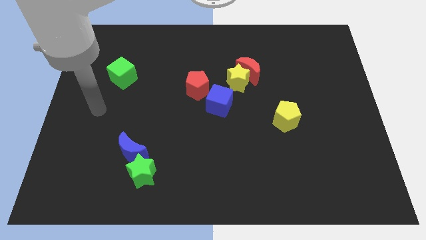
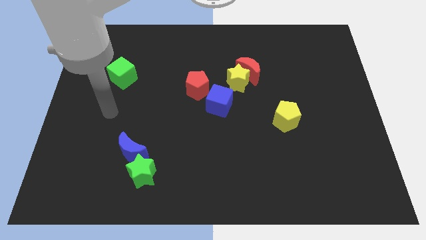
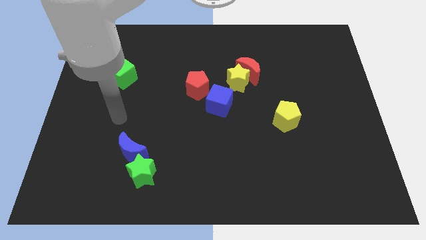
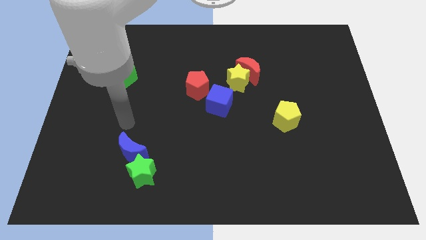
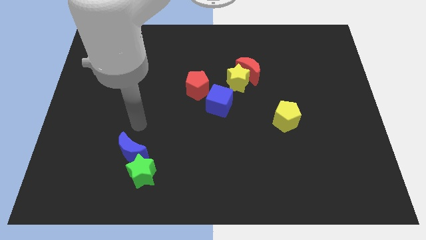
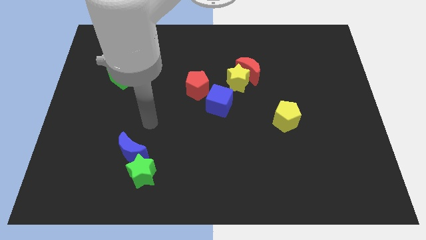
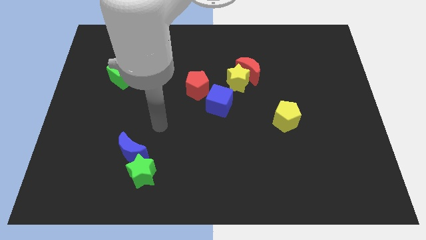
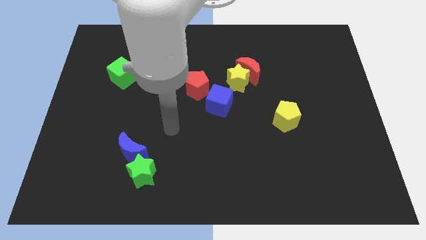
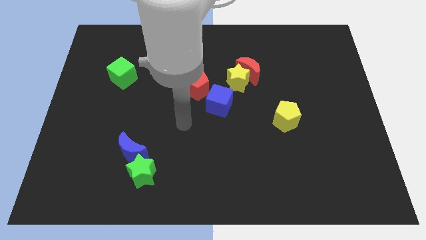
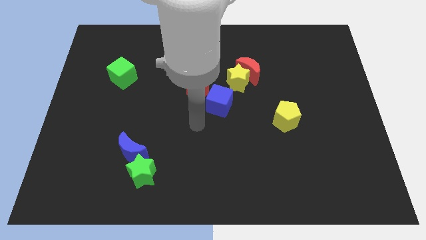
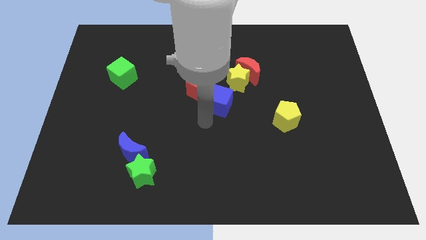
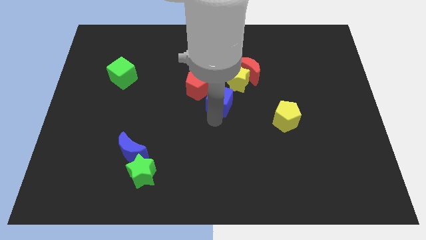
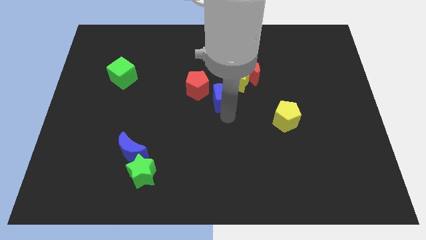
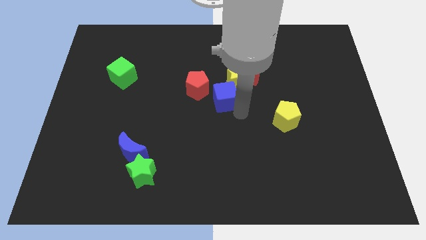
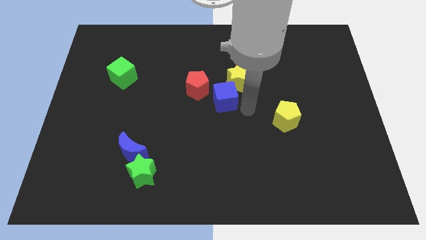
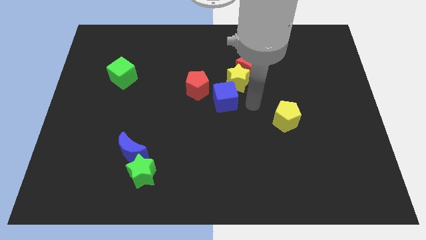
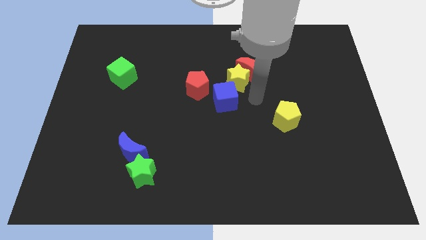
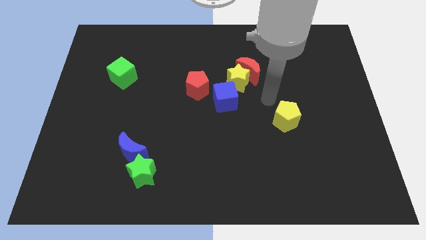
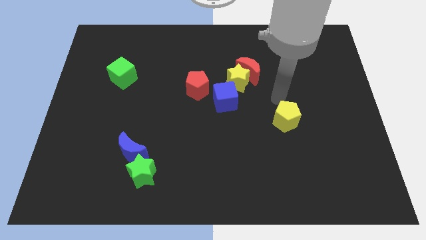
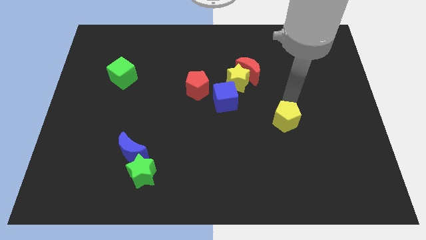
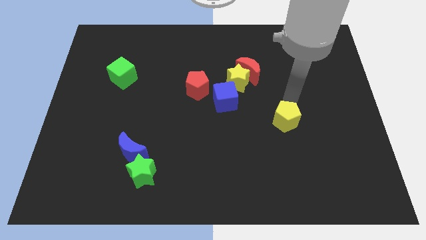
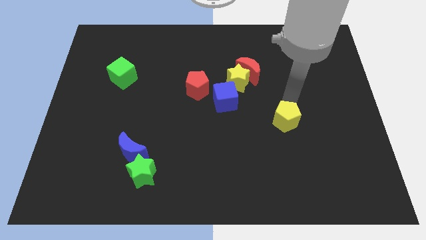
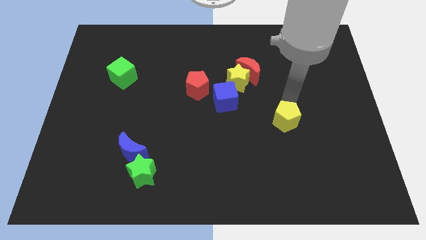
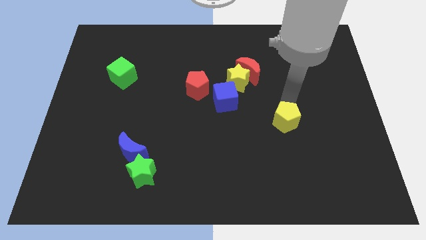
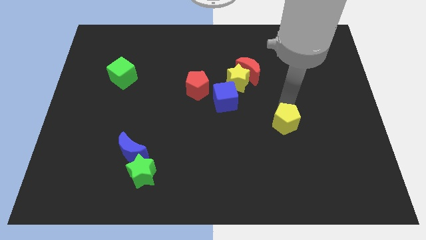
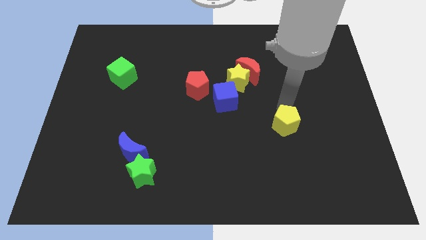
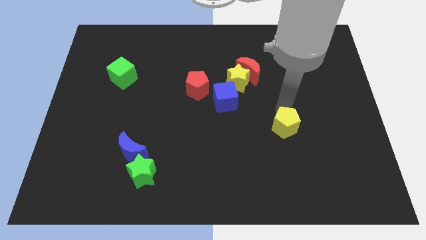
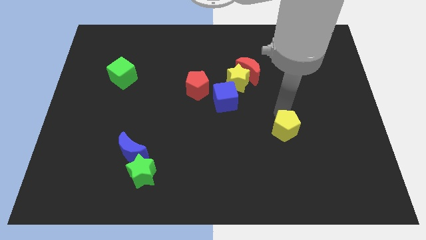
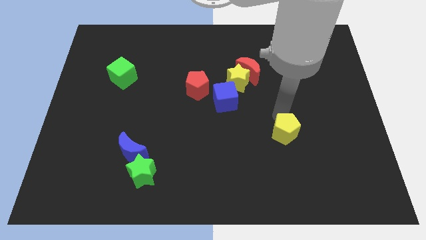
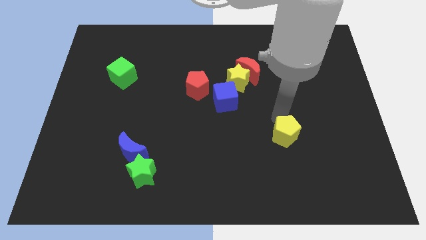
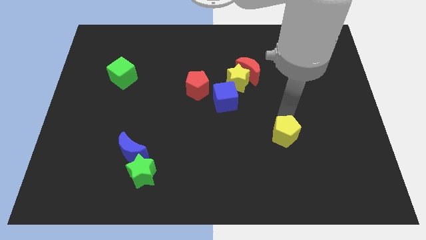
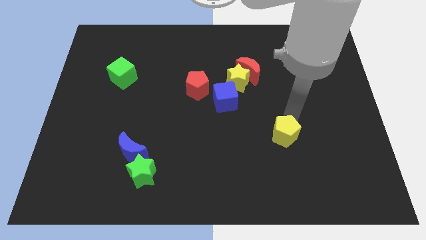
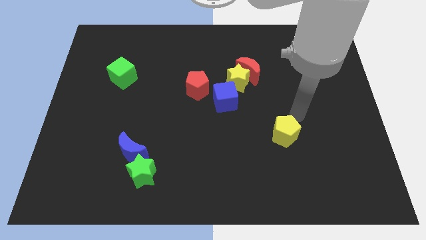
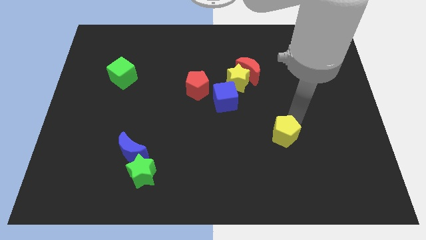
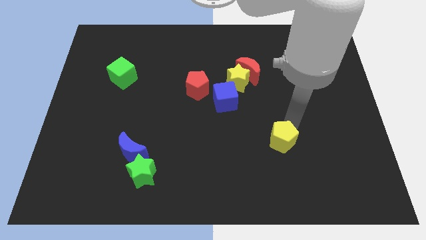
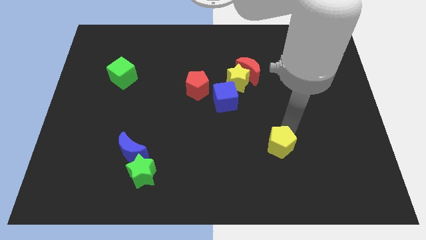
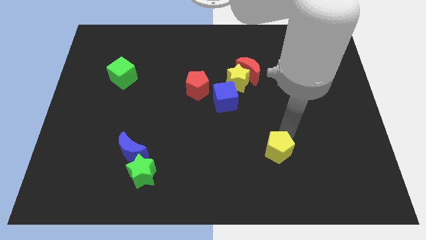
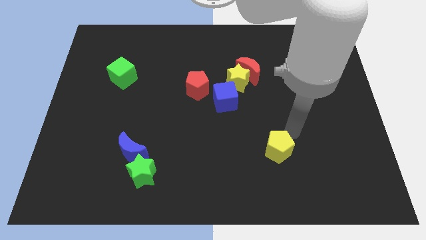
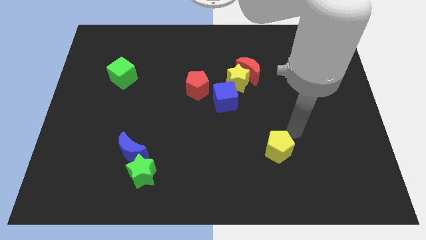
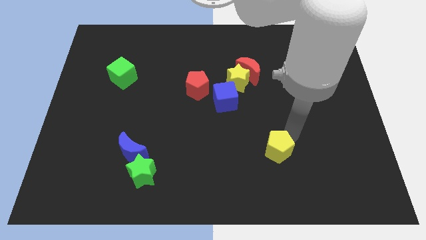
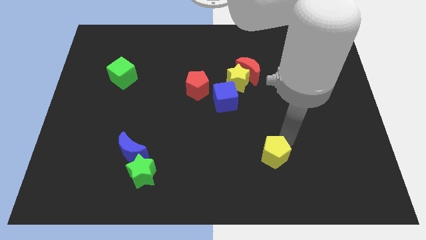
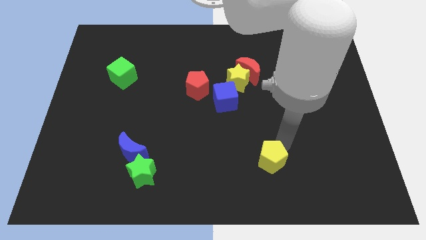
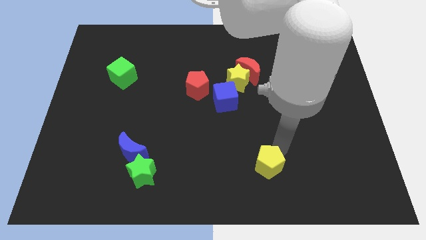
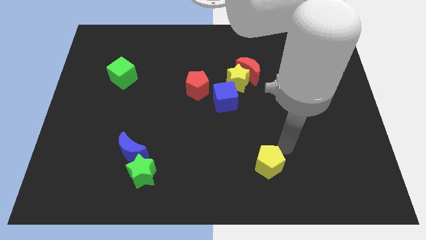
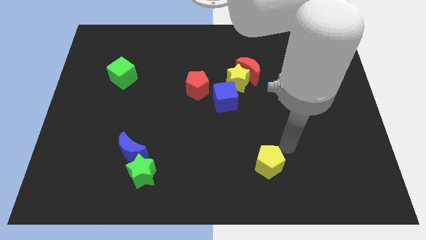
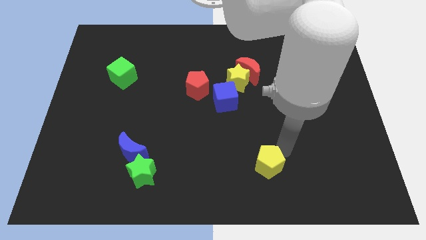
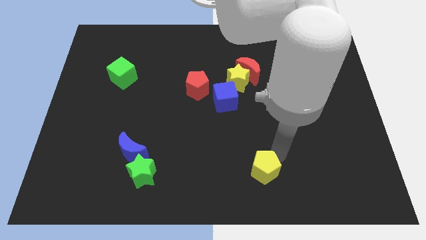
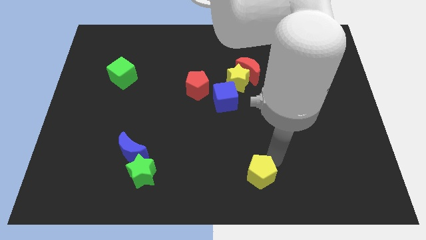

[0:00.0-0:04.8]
slide the yellow pentagon to the bottom

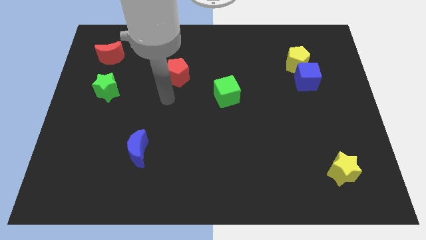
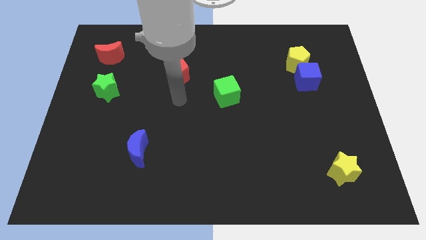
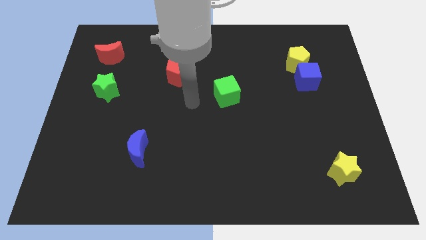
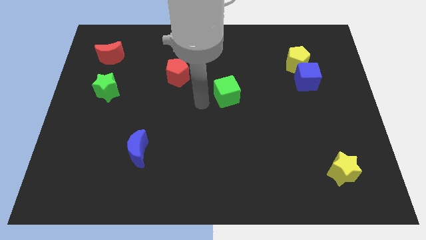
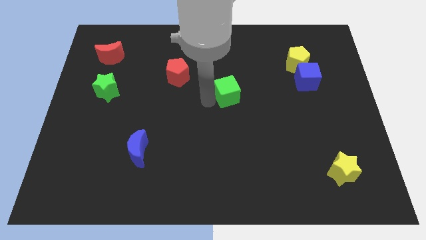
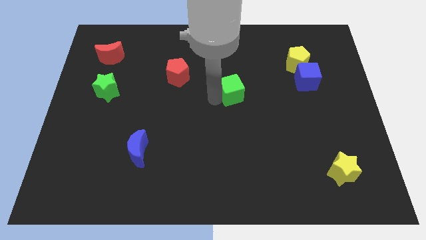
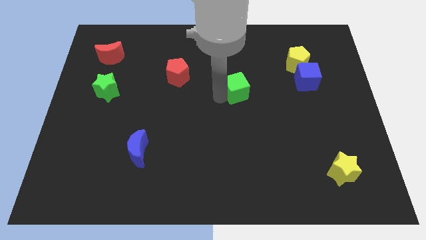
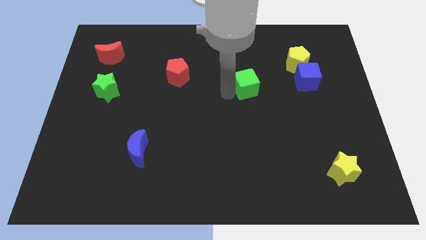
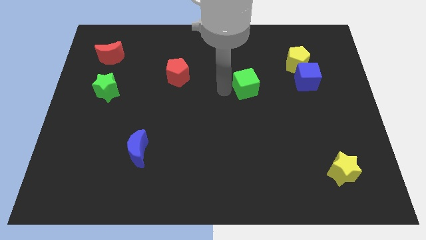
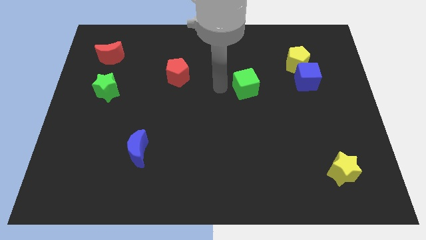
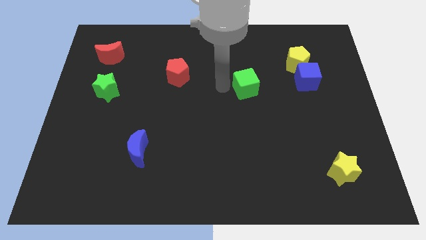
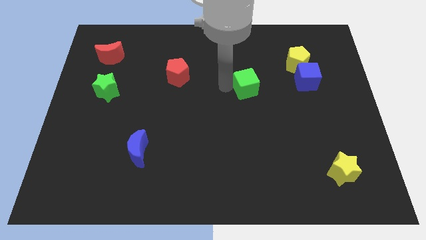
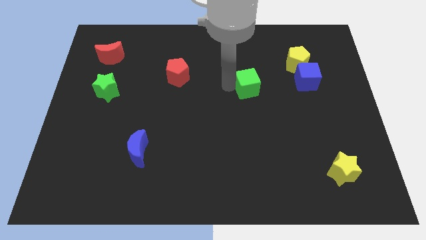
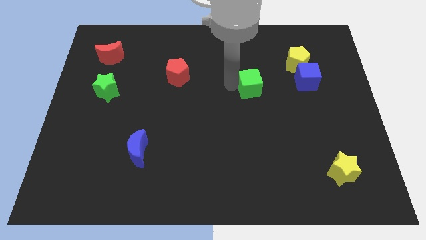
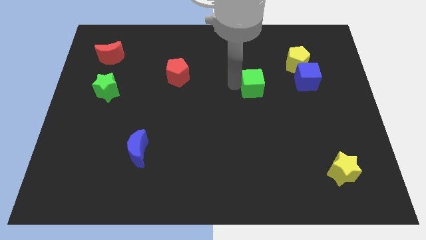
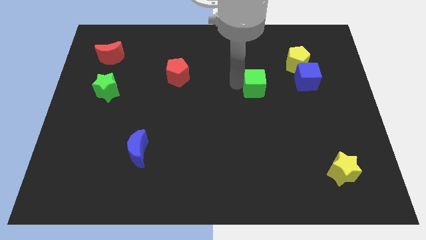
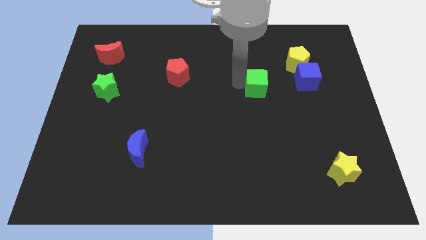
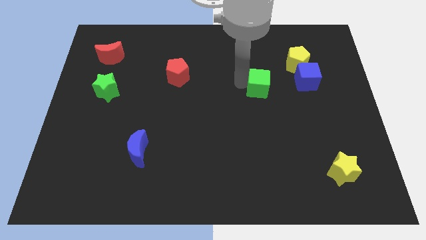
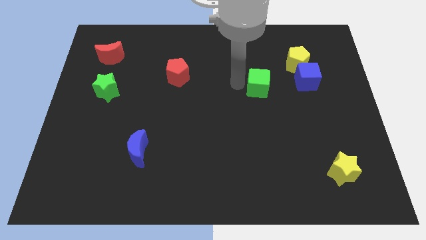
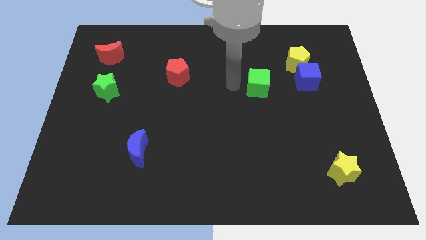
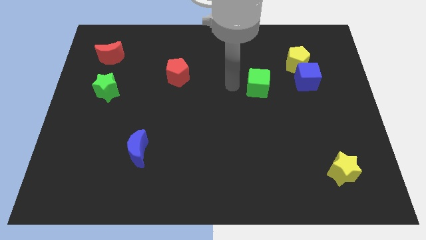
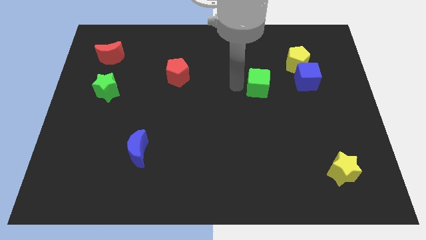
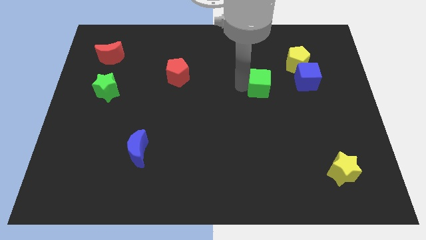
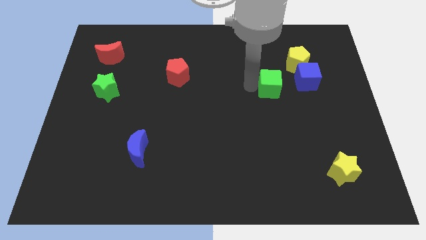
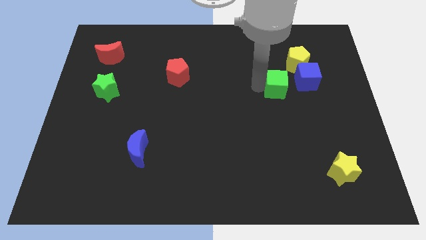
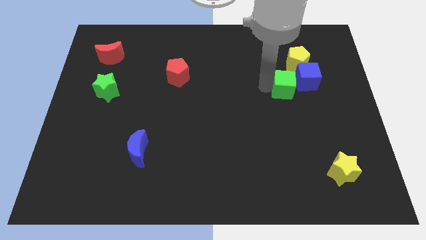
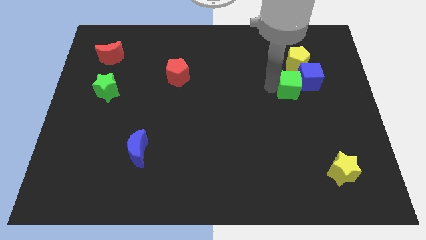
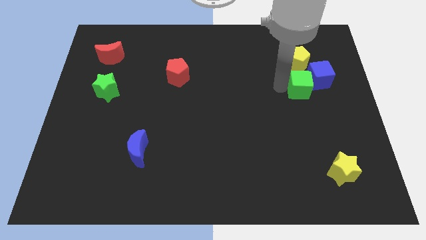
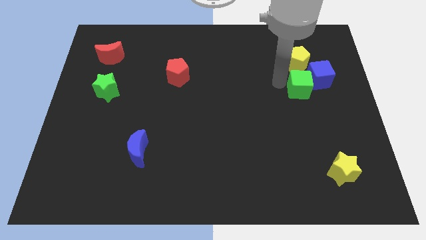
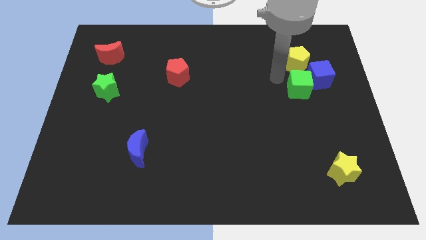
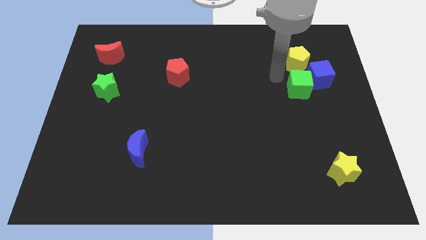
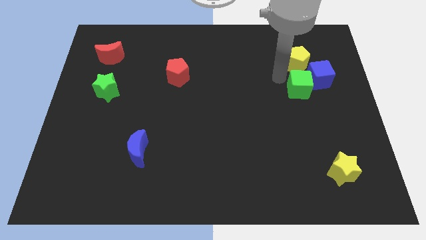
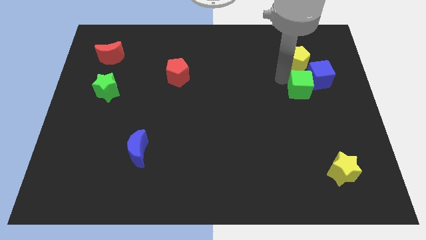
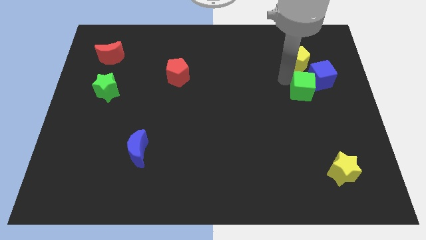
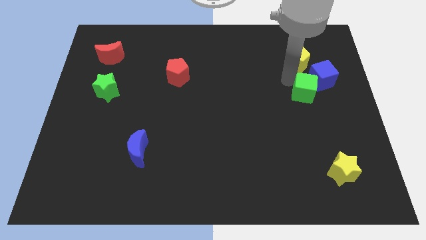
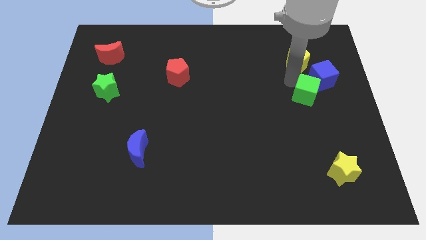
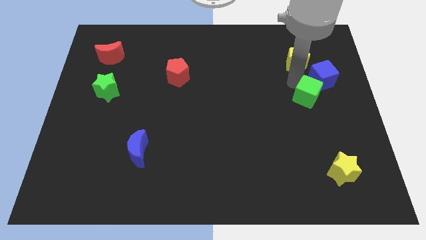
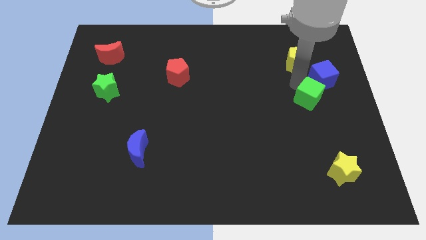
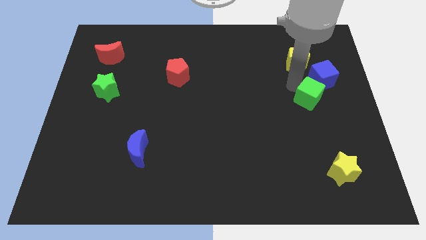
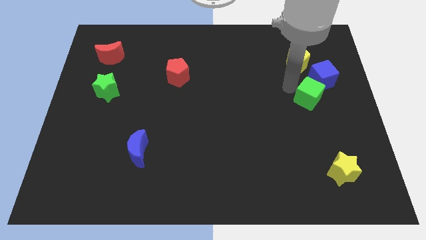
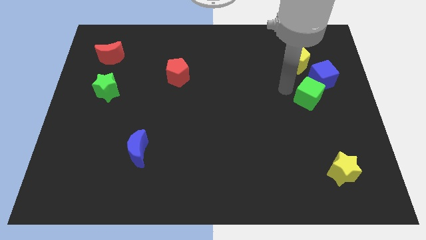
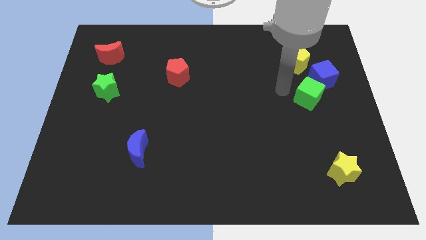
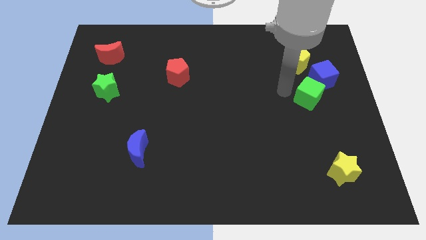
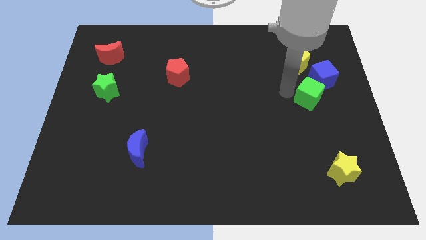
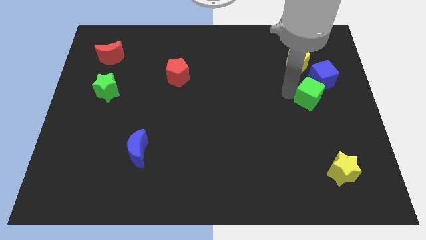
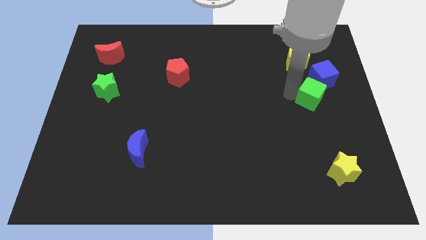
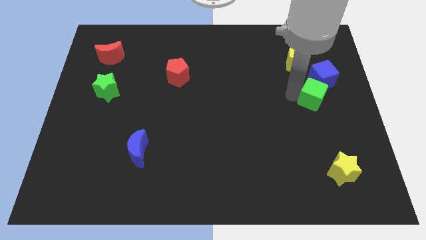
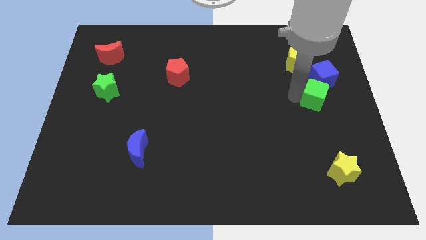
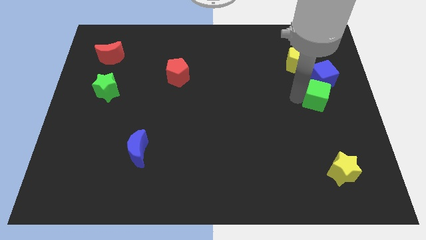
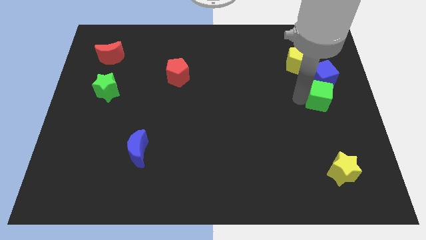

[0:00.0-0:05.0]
put the green cube to the right side
